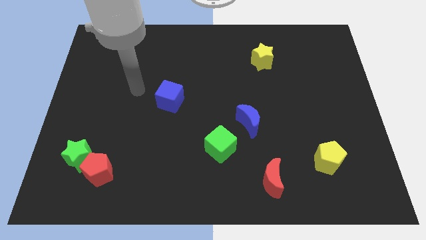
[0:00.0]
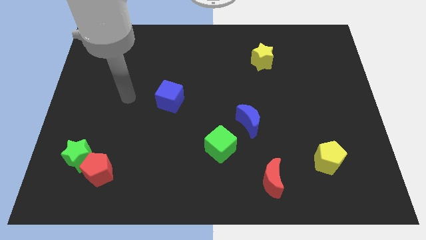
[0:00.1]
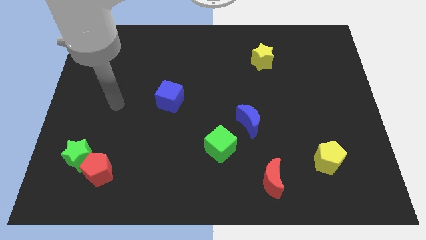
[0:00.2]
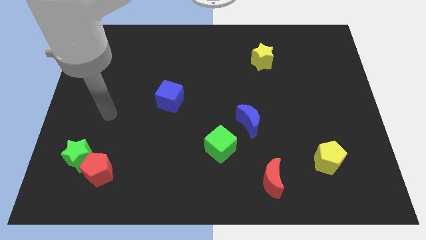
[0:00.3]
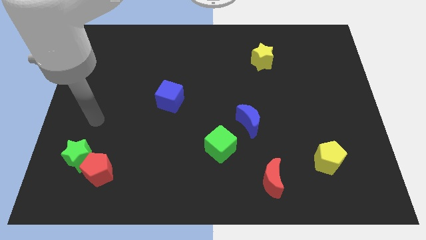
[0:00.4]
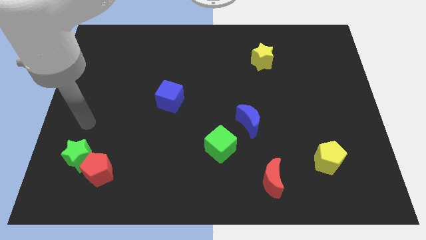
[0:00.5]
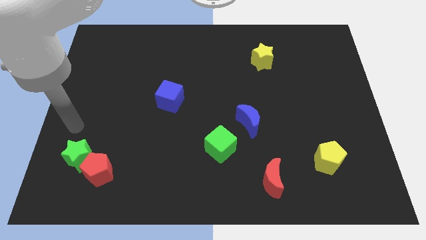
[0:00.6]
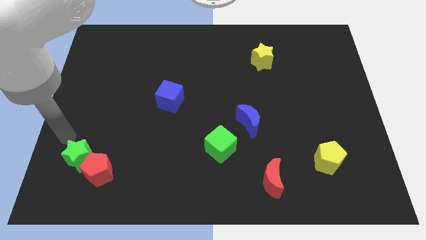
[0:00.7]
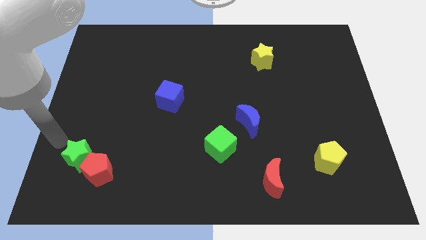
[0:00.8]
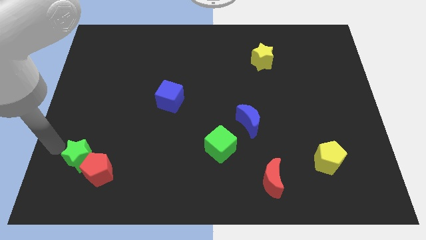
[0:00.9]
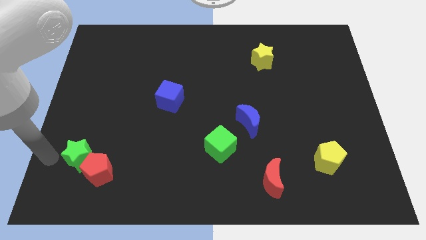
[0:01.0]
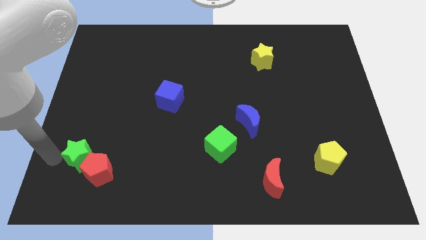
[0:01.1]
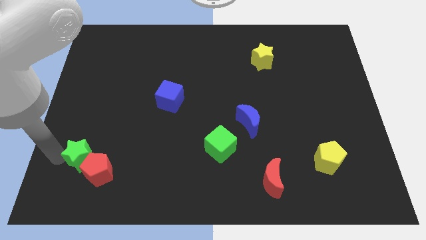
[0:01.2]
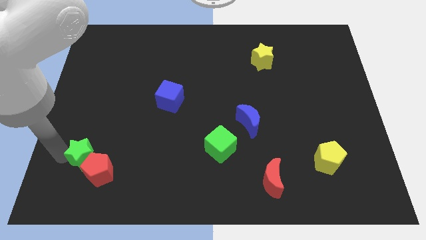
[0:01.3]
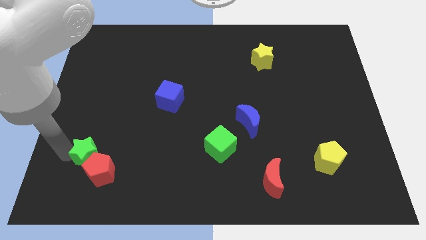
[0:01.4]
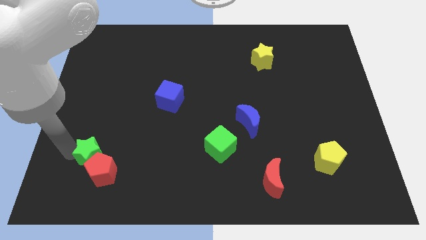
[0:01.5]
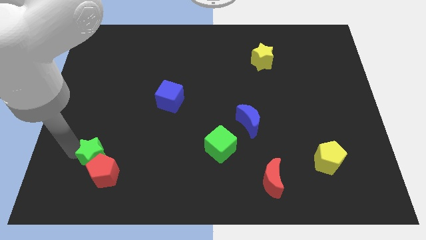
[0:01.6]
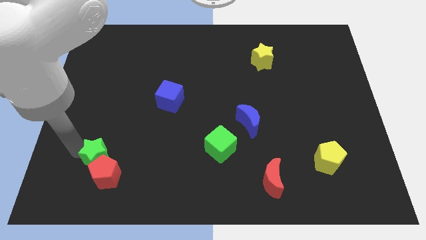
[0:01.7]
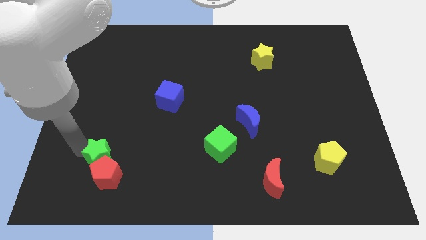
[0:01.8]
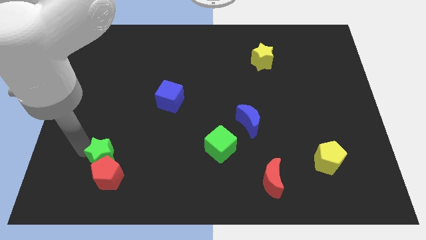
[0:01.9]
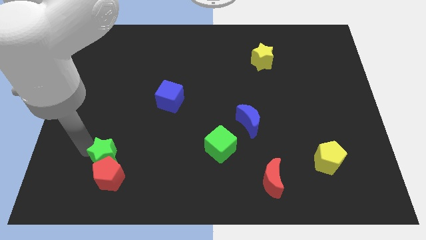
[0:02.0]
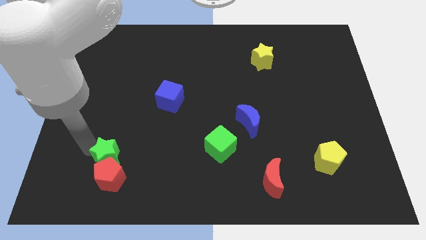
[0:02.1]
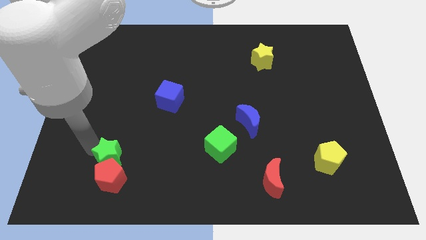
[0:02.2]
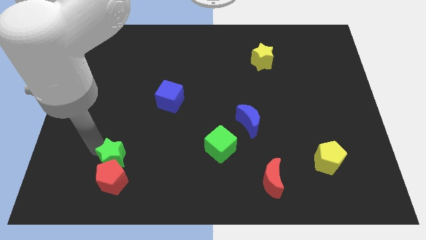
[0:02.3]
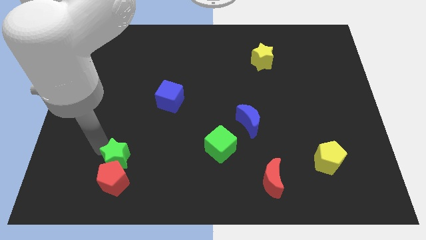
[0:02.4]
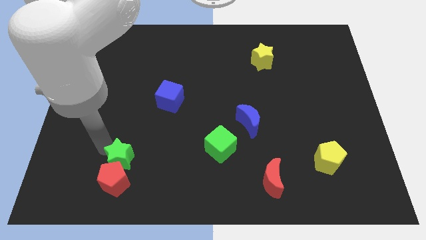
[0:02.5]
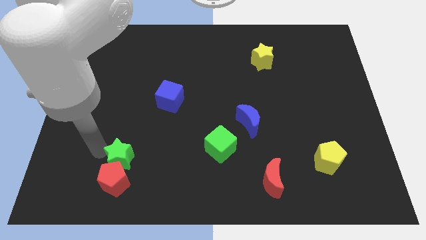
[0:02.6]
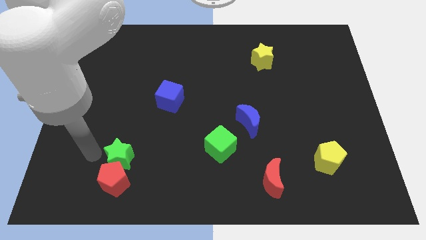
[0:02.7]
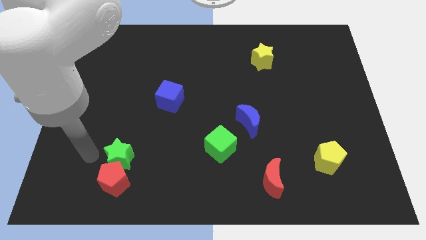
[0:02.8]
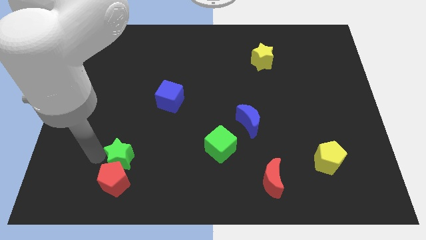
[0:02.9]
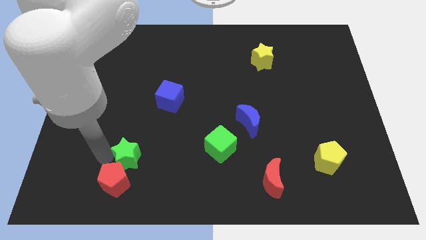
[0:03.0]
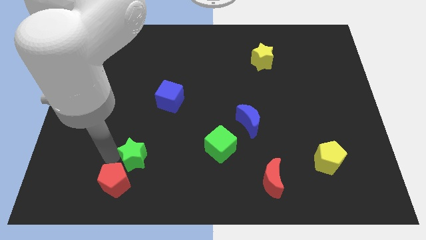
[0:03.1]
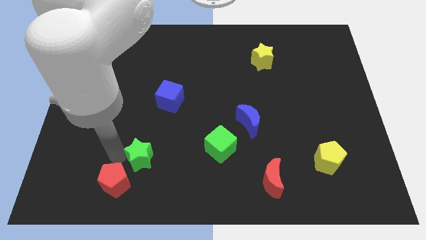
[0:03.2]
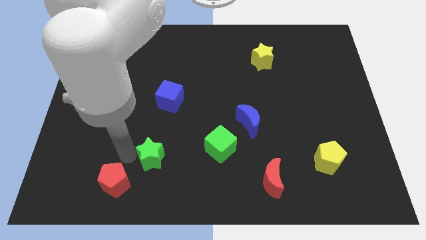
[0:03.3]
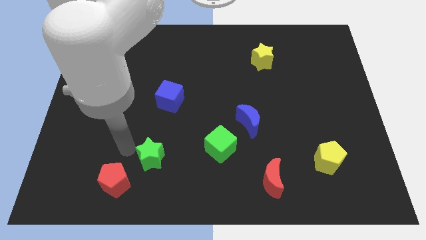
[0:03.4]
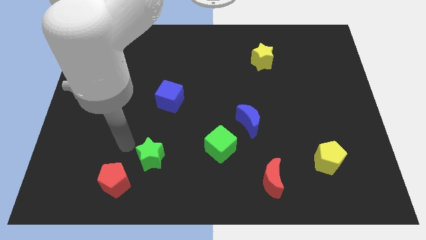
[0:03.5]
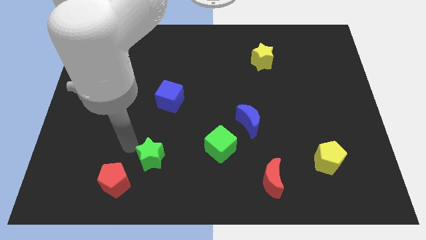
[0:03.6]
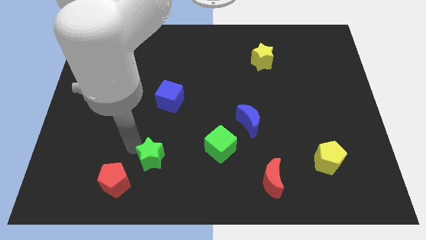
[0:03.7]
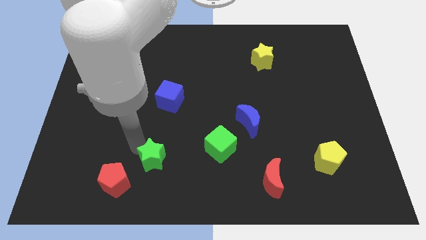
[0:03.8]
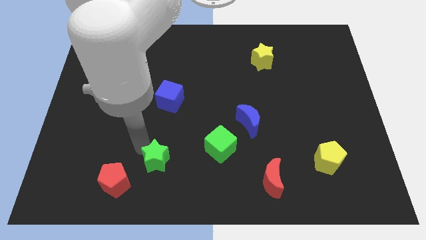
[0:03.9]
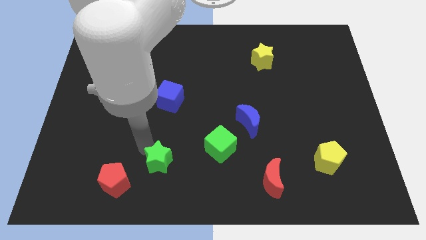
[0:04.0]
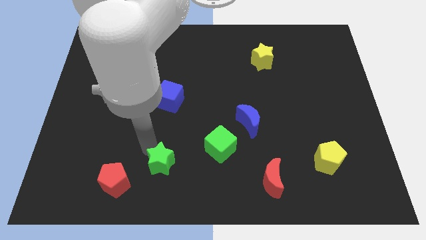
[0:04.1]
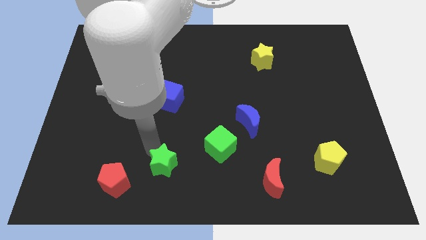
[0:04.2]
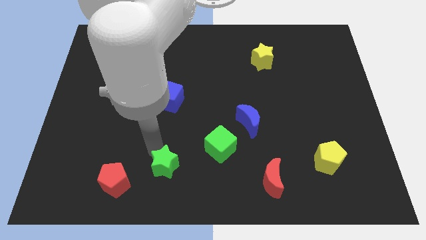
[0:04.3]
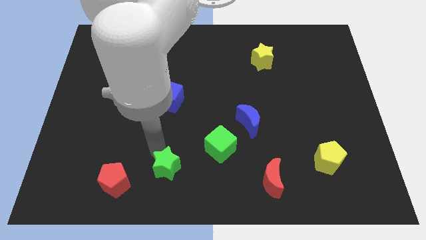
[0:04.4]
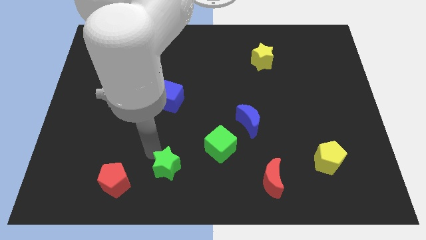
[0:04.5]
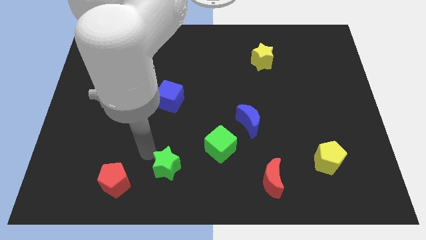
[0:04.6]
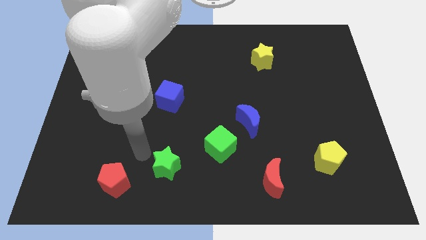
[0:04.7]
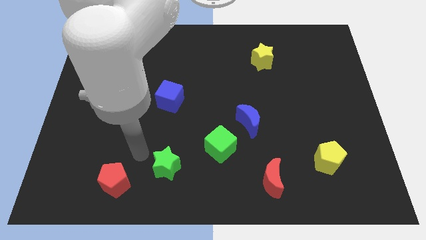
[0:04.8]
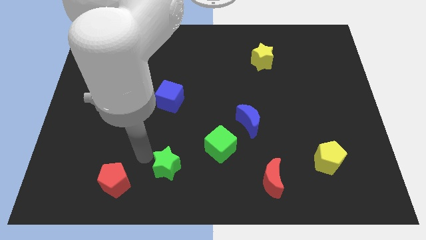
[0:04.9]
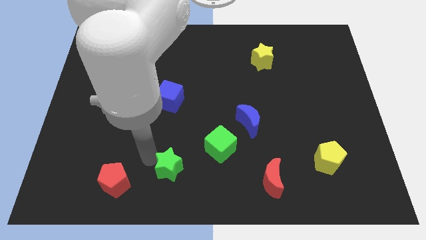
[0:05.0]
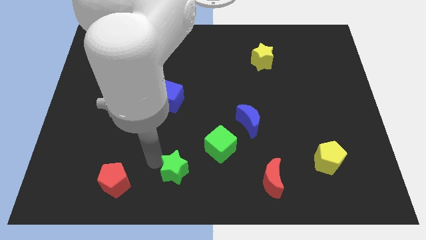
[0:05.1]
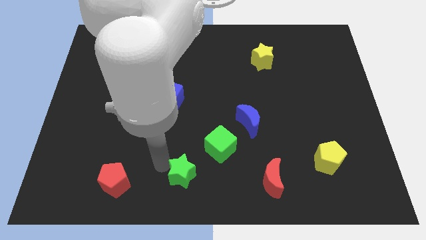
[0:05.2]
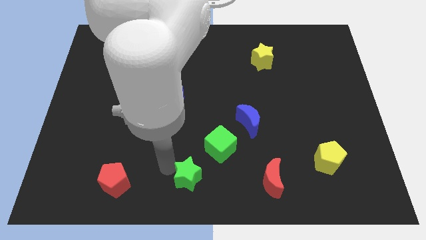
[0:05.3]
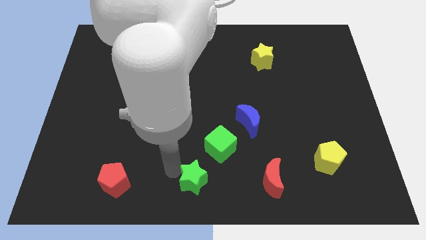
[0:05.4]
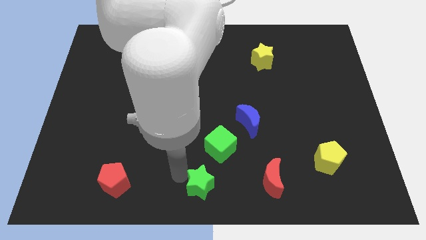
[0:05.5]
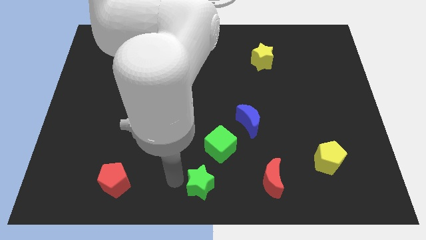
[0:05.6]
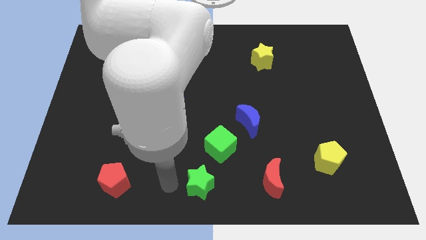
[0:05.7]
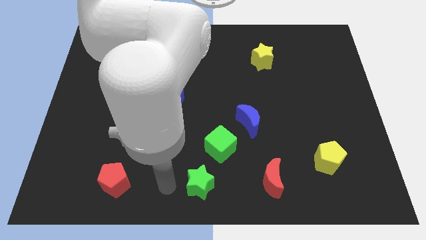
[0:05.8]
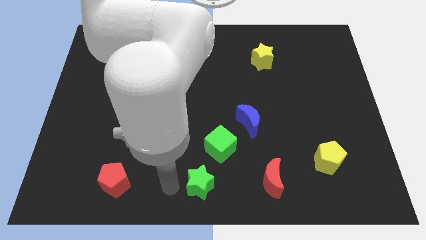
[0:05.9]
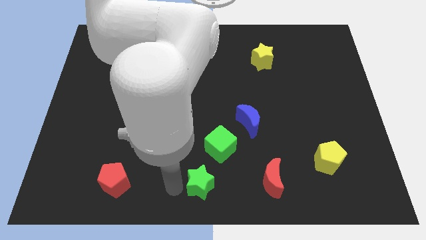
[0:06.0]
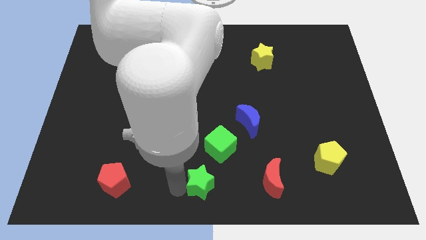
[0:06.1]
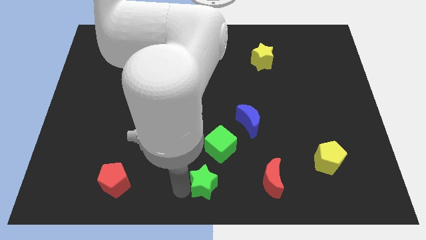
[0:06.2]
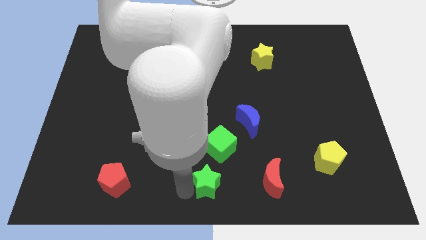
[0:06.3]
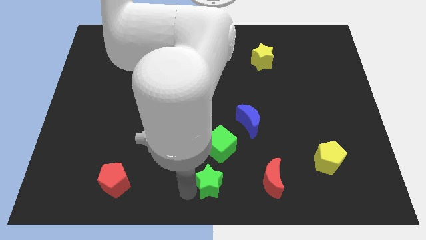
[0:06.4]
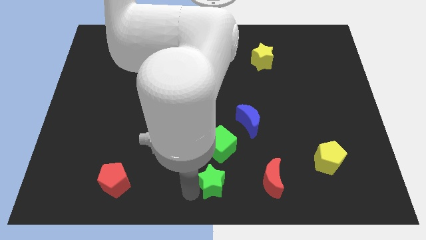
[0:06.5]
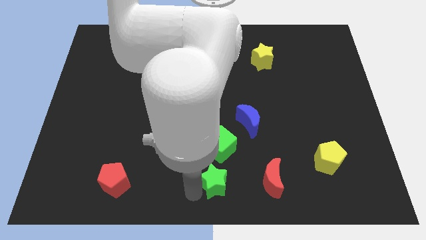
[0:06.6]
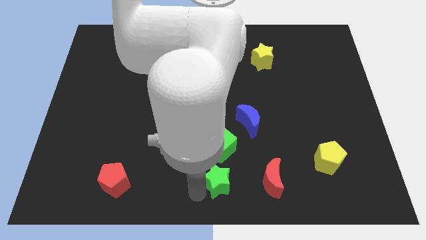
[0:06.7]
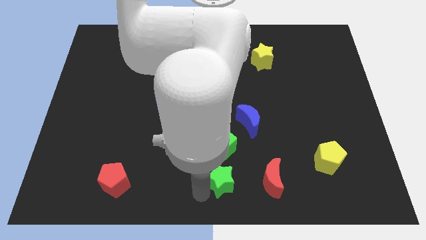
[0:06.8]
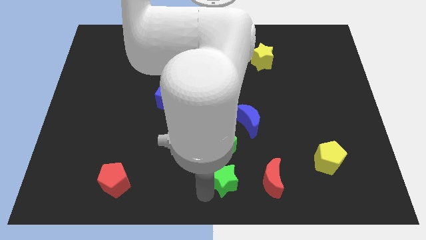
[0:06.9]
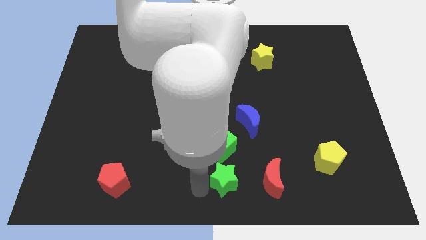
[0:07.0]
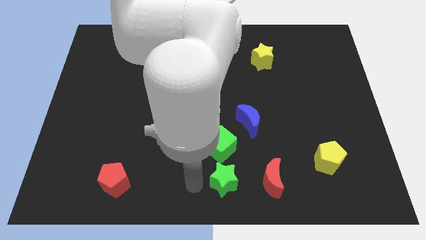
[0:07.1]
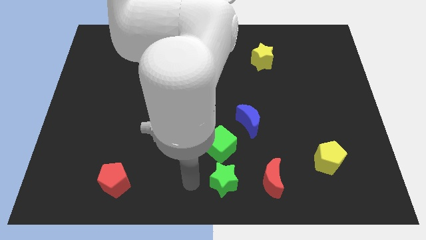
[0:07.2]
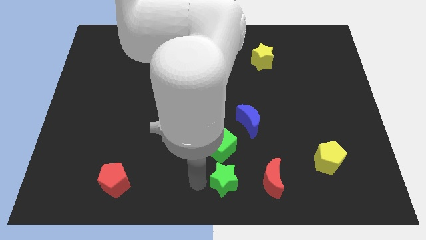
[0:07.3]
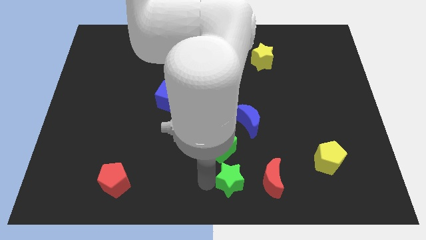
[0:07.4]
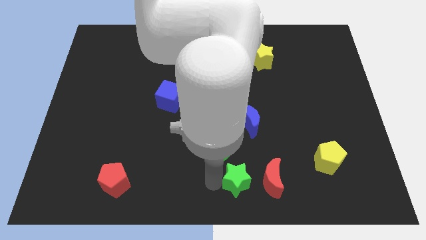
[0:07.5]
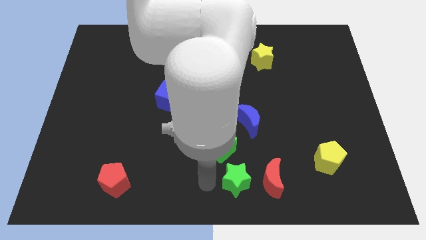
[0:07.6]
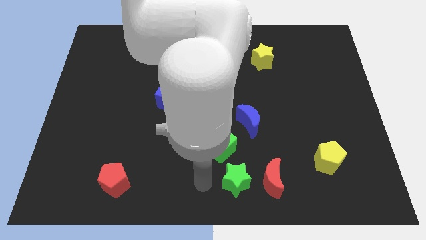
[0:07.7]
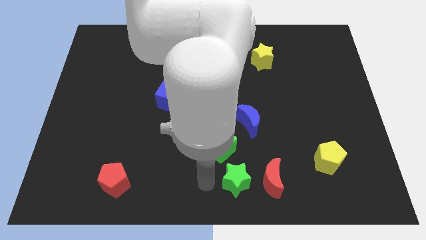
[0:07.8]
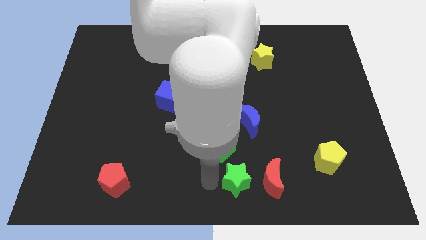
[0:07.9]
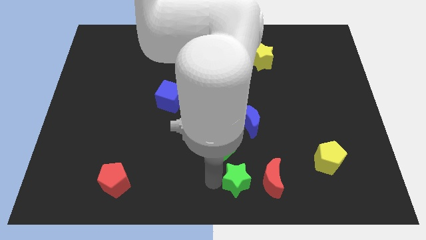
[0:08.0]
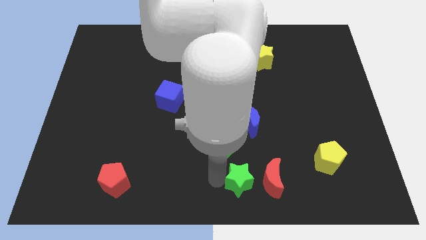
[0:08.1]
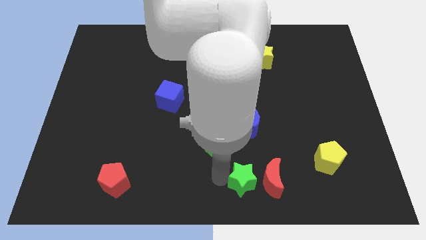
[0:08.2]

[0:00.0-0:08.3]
slide the green star towards the red moon
